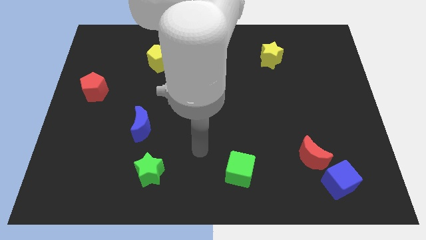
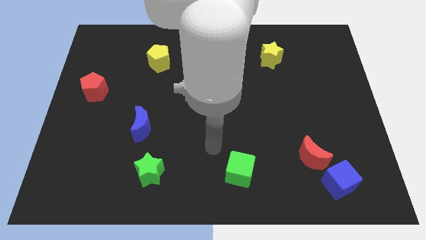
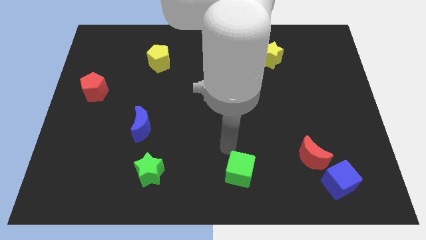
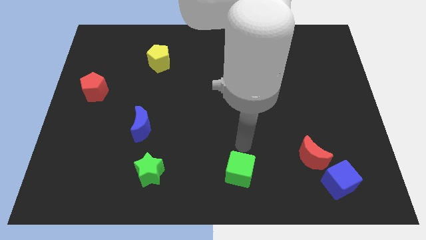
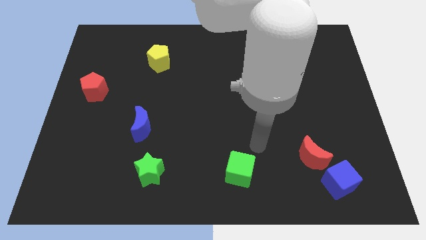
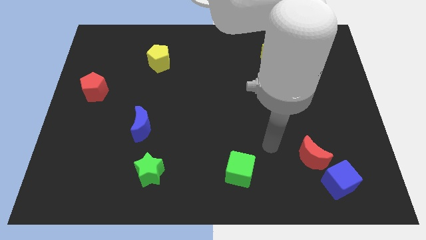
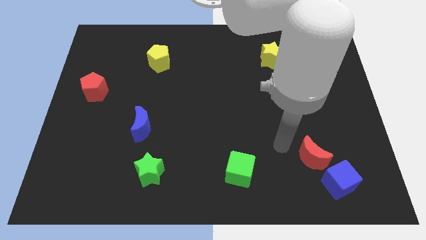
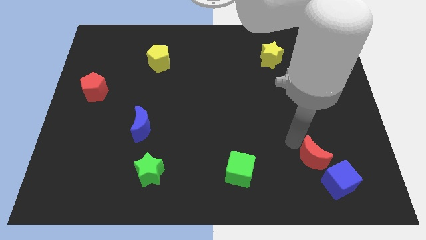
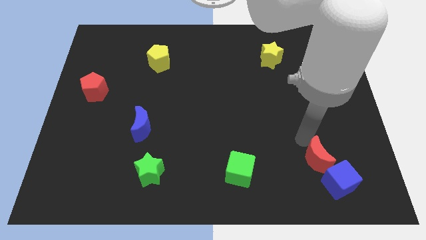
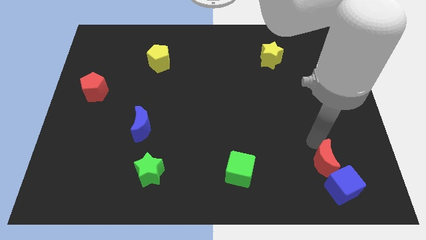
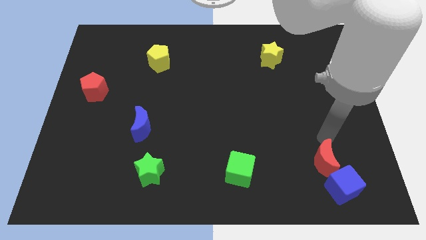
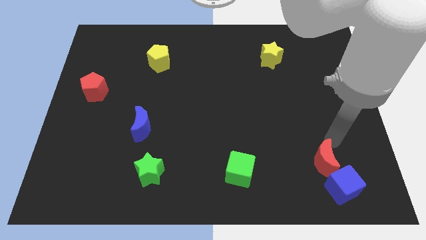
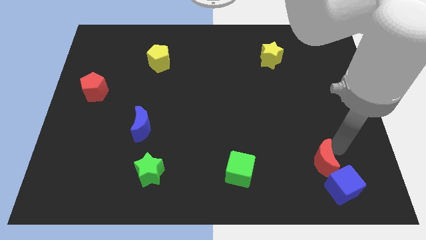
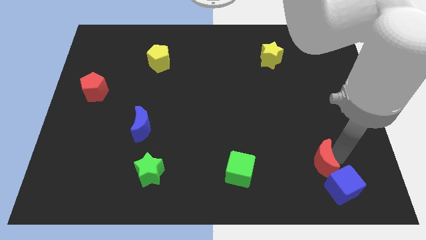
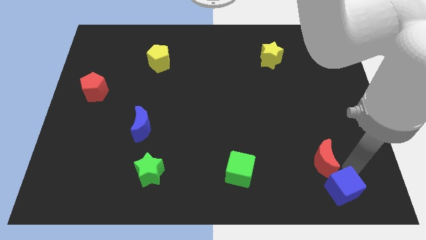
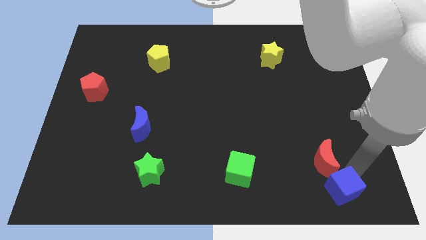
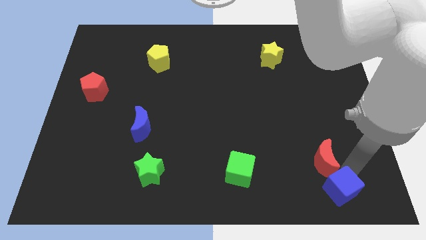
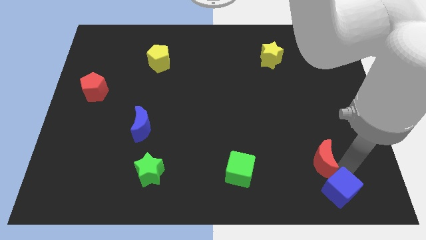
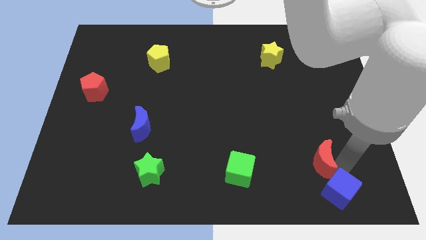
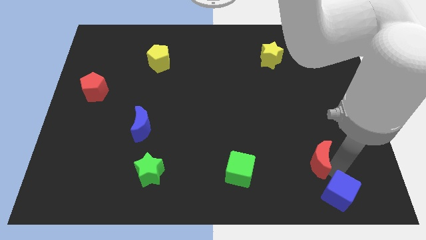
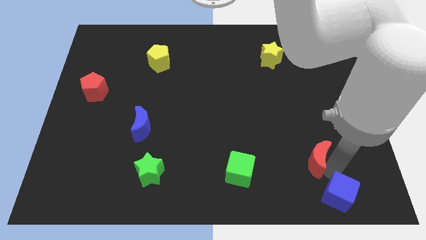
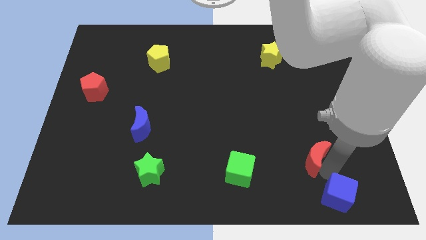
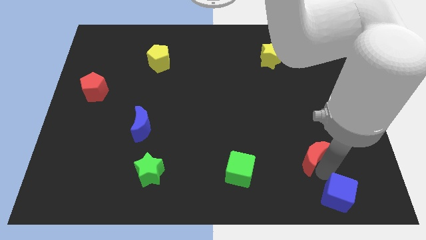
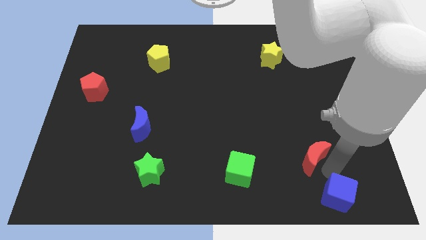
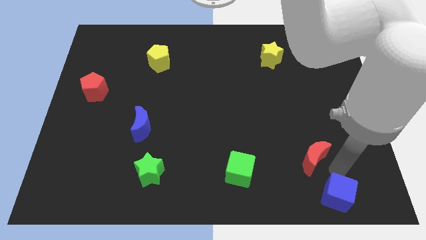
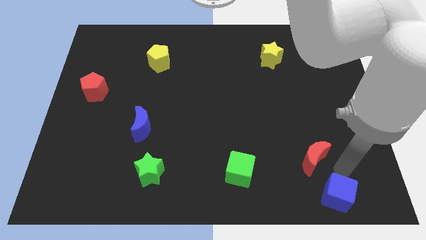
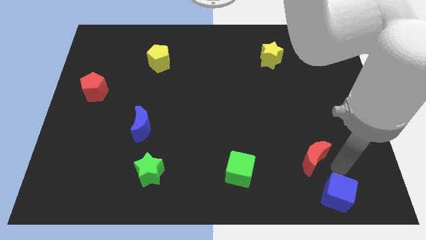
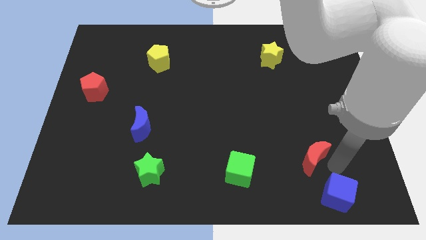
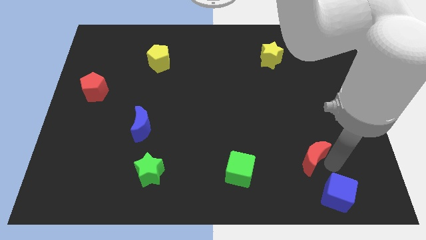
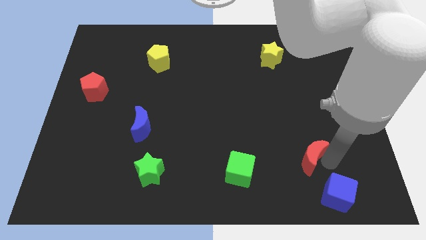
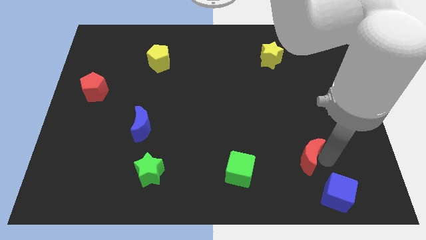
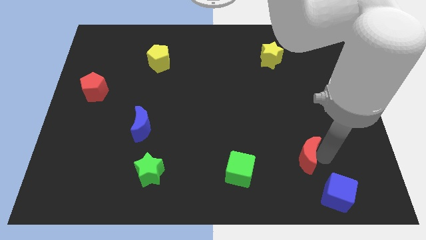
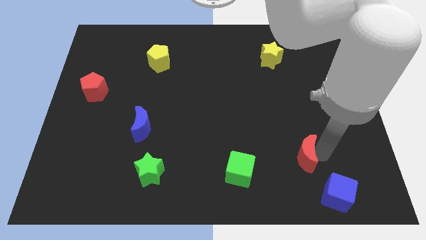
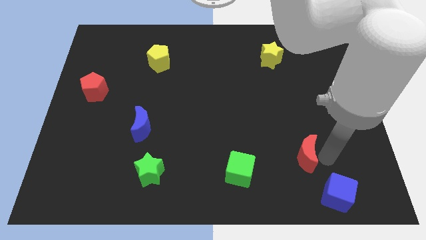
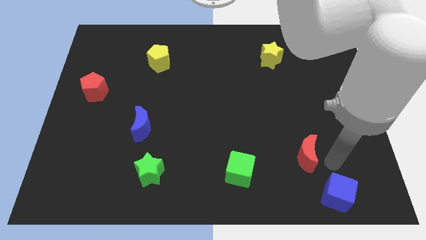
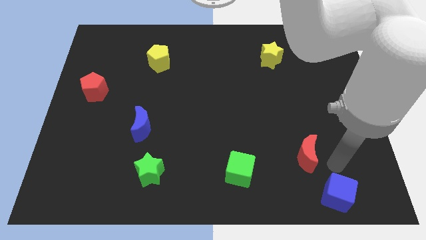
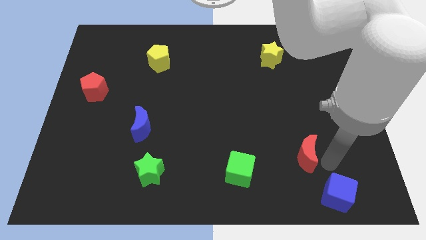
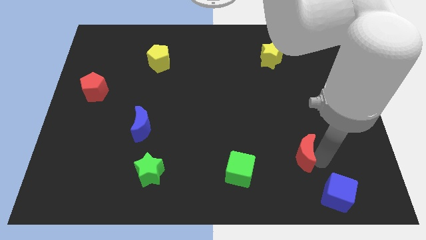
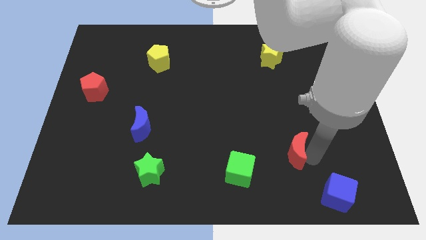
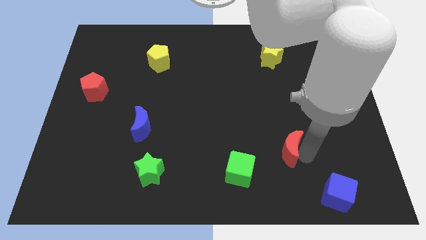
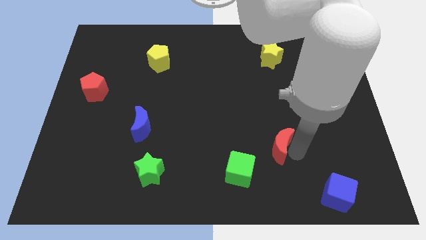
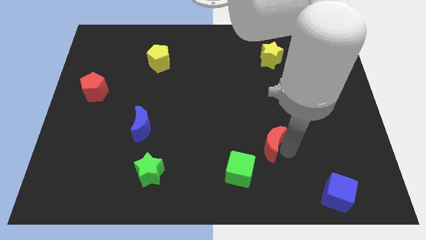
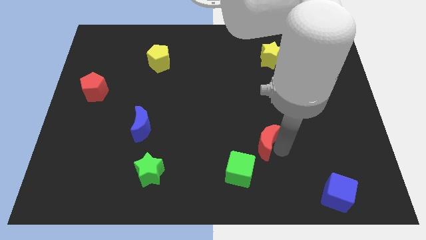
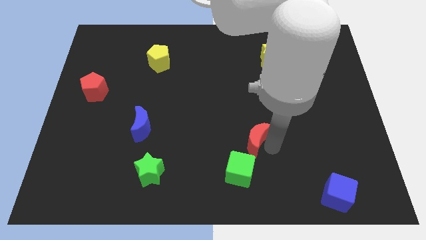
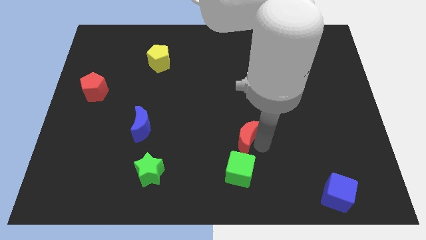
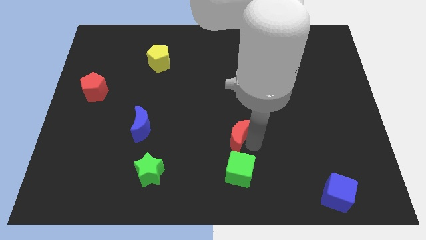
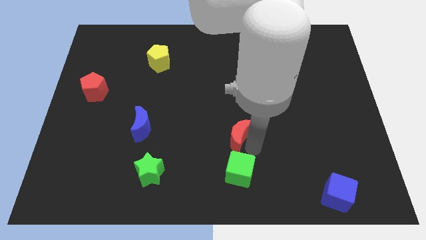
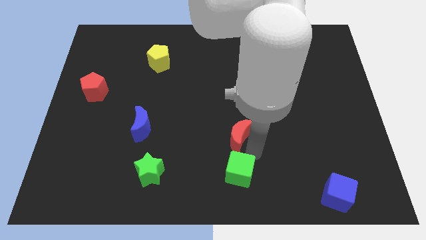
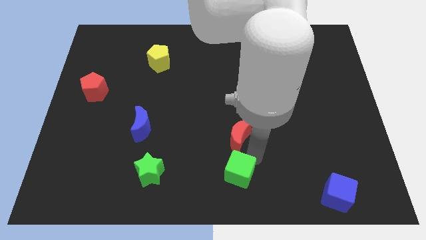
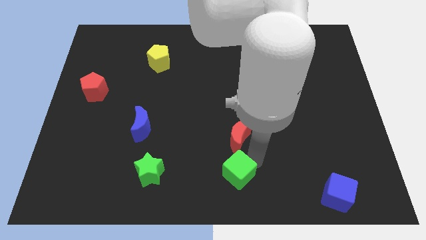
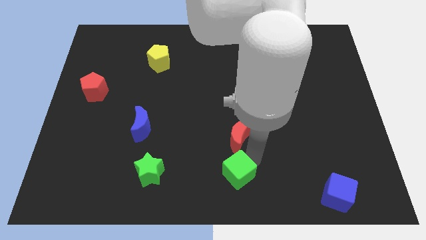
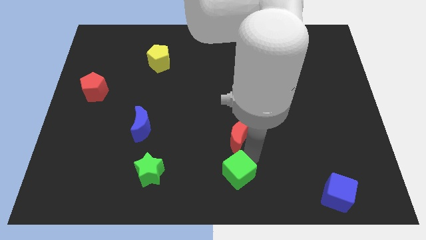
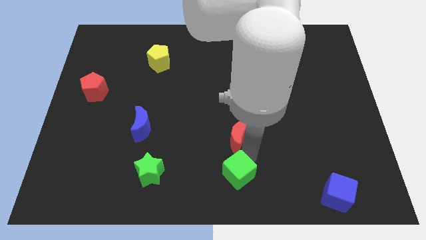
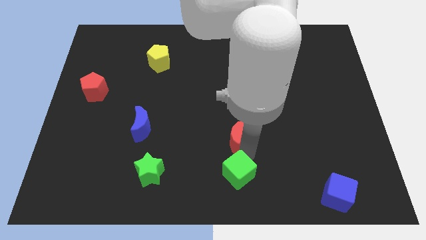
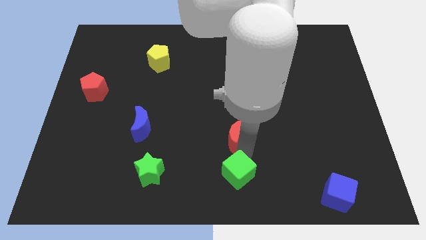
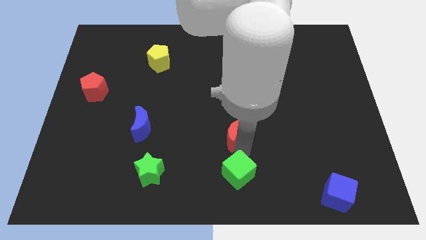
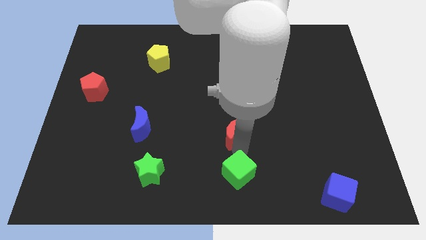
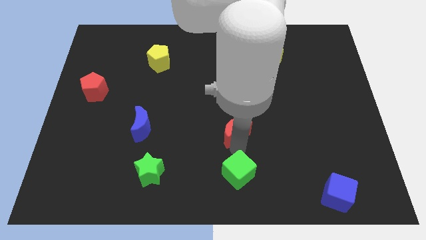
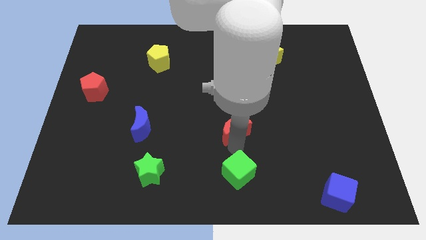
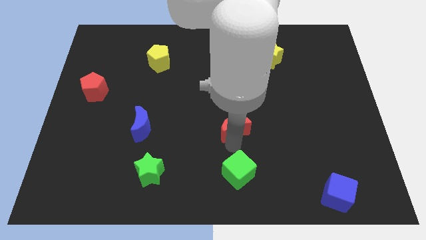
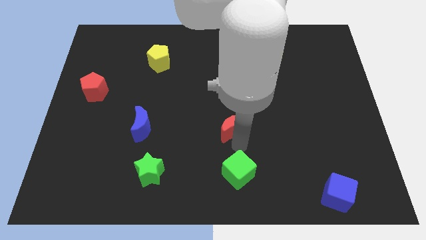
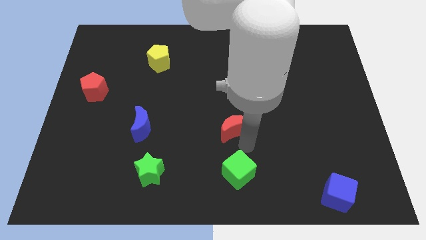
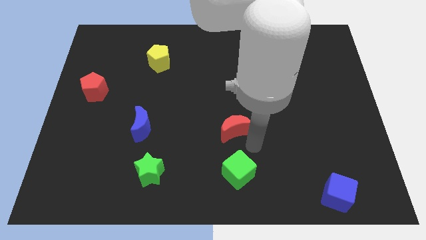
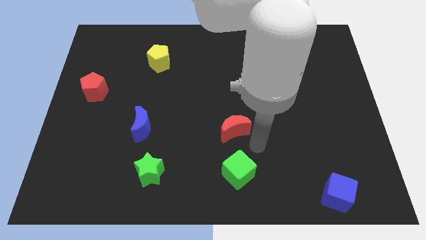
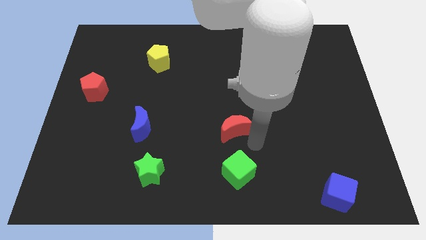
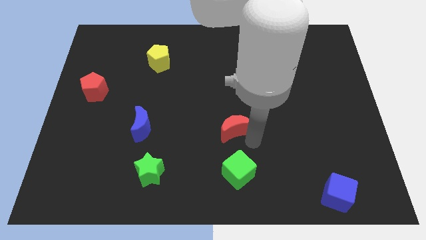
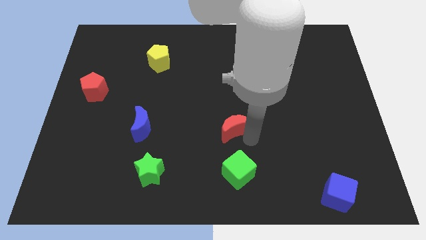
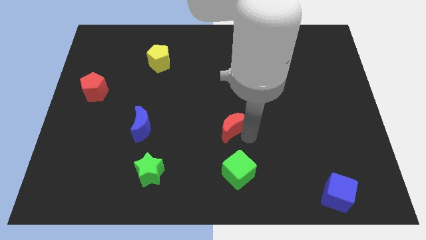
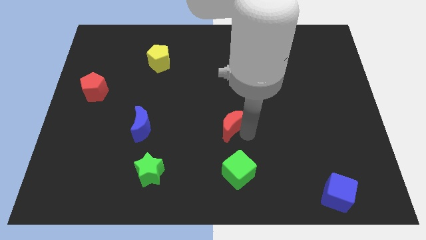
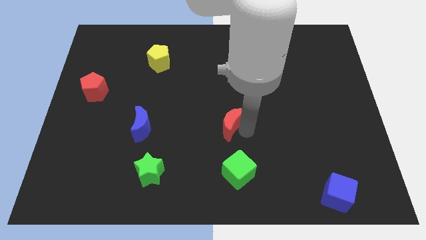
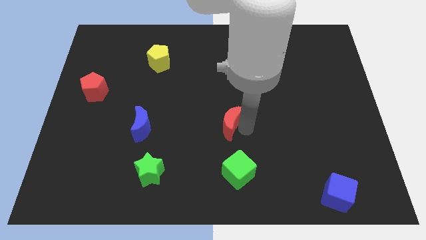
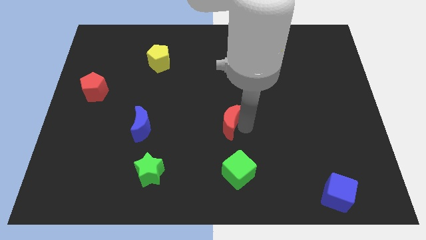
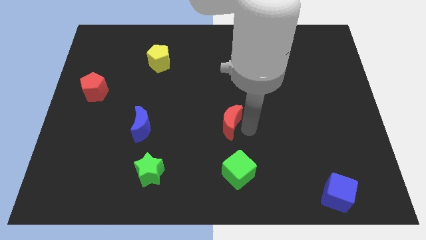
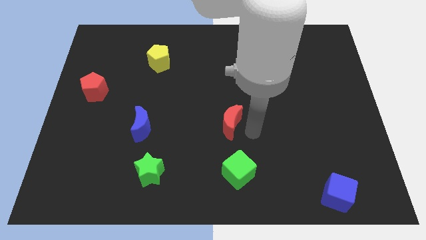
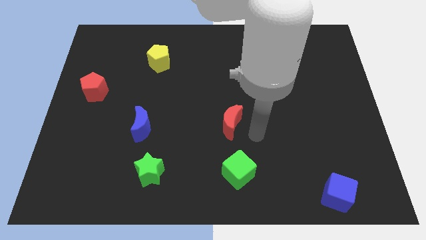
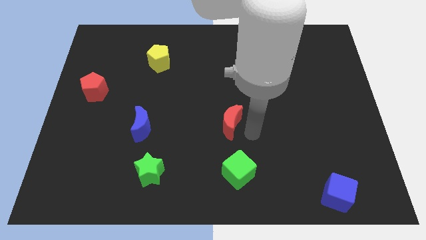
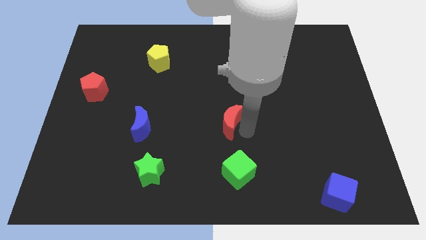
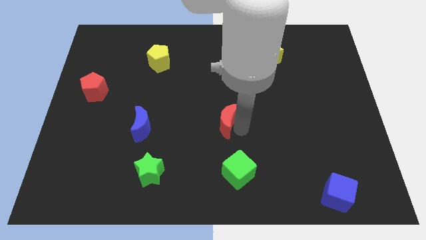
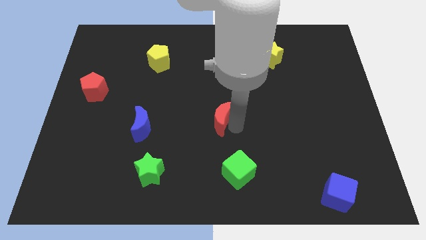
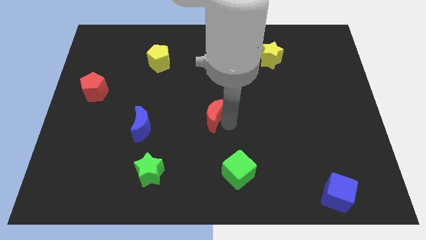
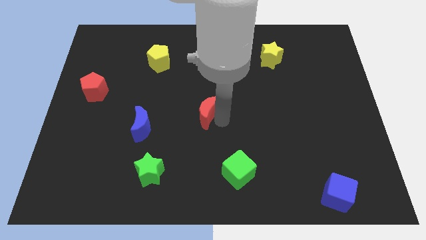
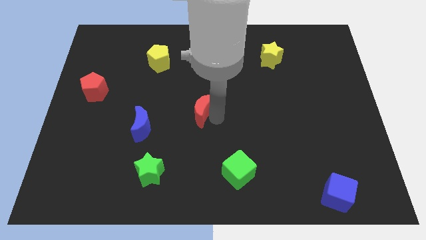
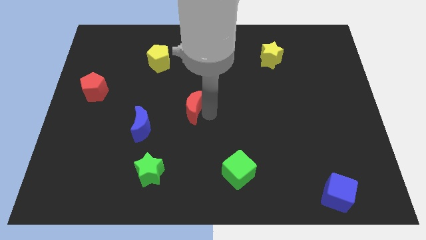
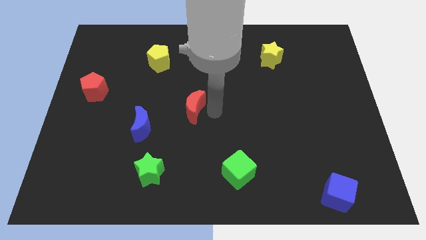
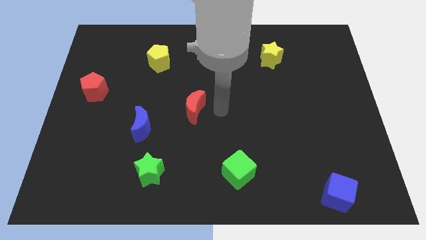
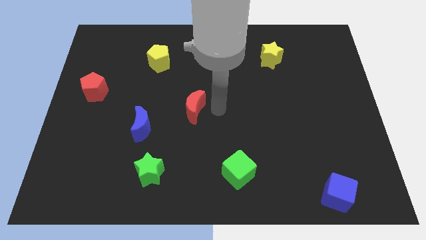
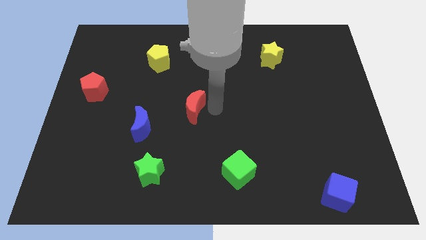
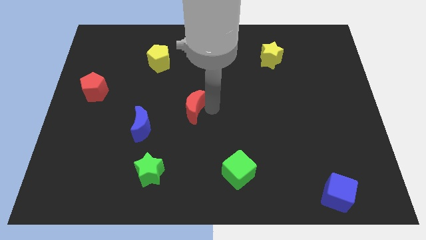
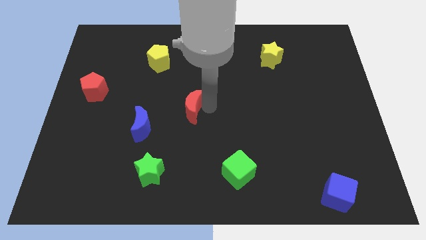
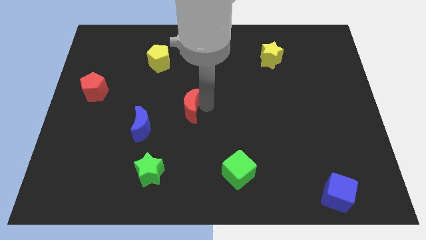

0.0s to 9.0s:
put the red moon to the top right side of the blue moon
